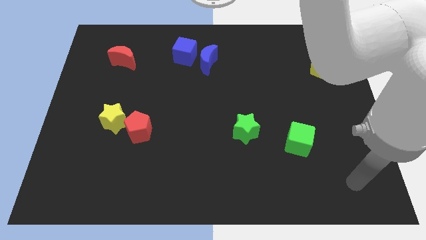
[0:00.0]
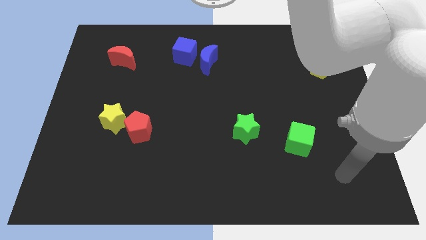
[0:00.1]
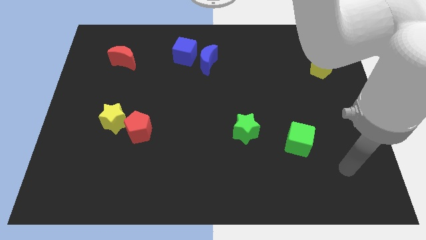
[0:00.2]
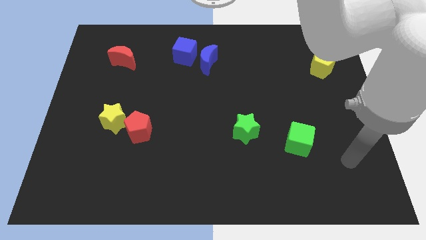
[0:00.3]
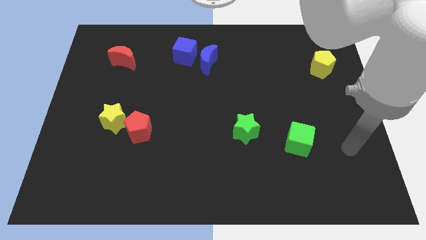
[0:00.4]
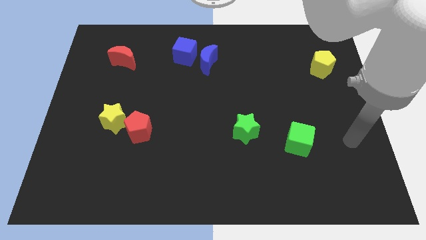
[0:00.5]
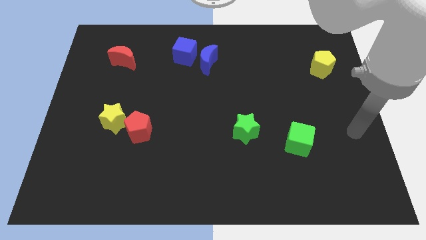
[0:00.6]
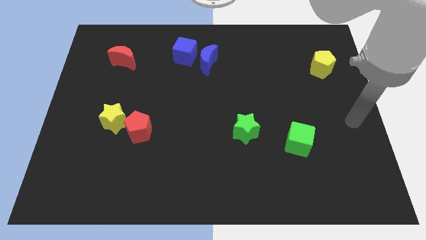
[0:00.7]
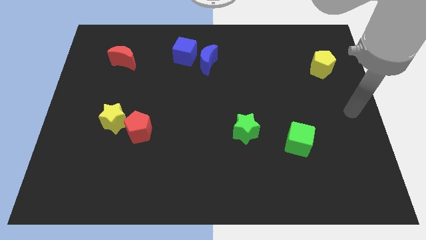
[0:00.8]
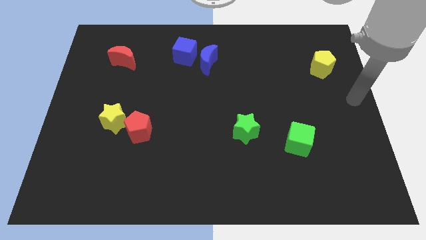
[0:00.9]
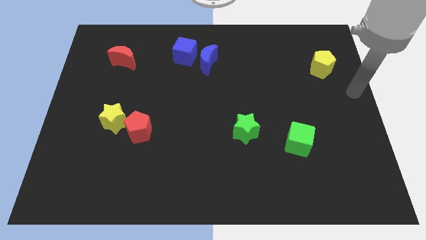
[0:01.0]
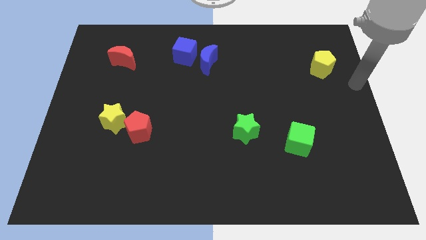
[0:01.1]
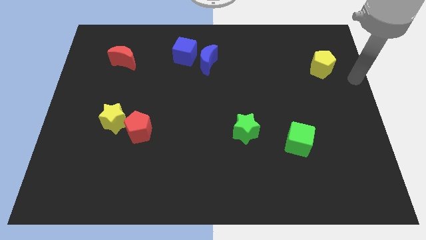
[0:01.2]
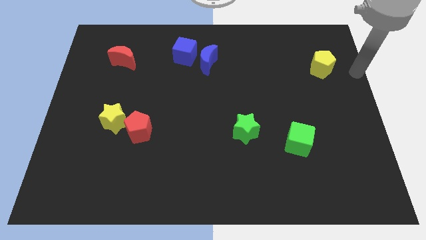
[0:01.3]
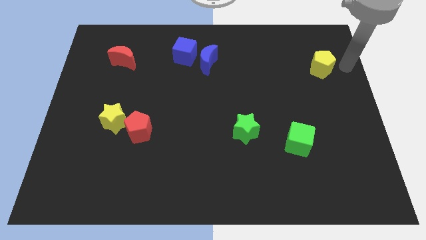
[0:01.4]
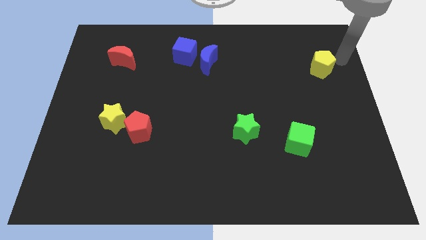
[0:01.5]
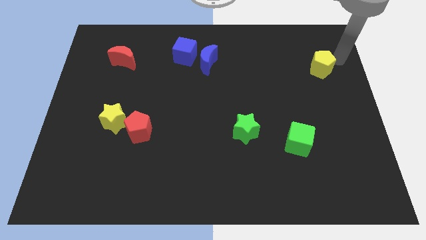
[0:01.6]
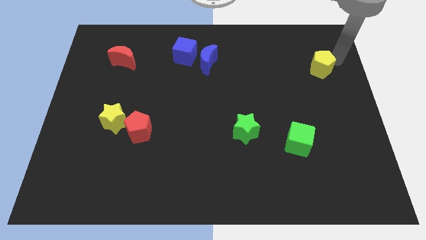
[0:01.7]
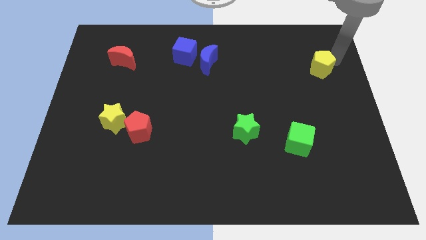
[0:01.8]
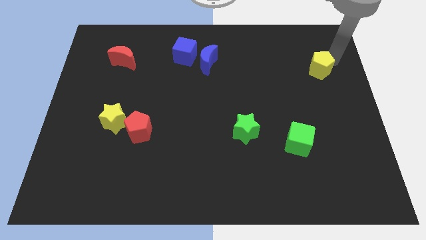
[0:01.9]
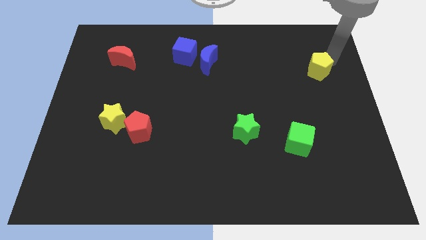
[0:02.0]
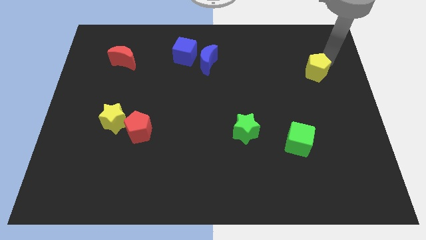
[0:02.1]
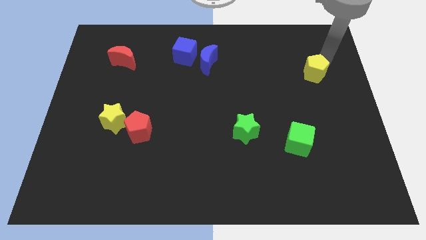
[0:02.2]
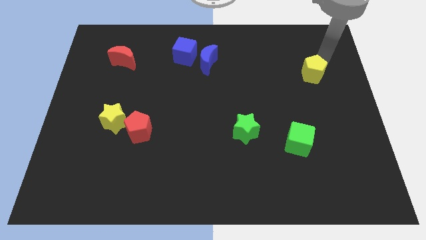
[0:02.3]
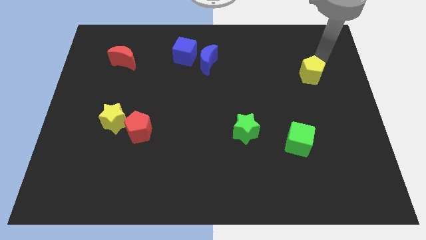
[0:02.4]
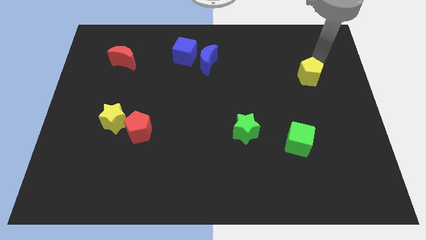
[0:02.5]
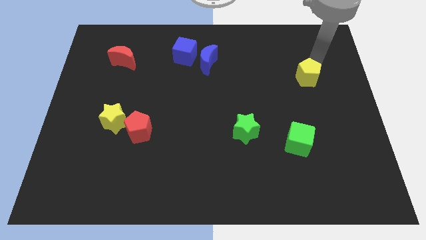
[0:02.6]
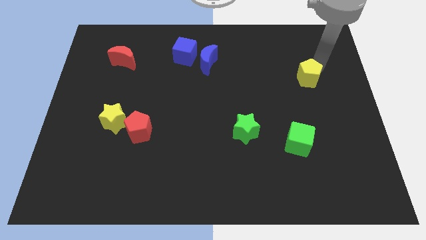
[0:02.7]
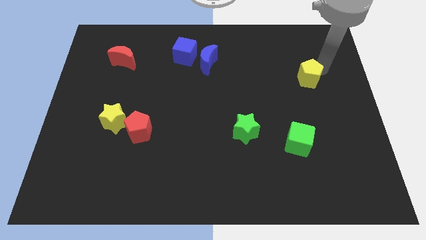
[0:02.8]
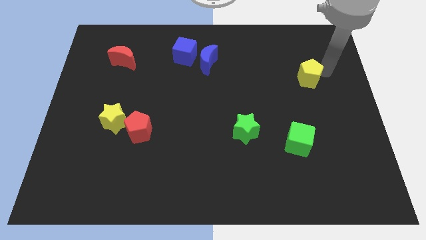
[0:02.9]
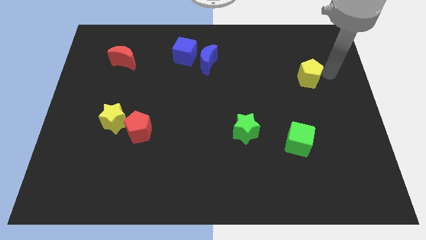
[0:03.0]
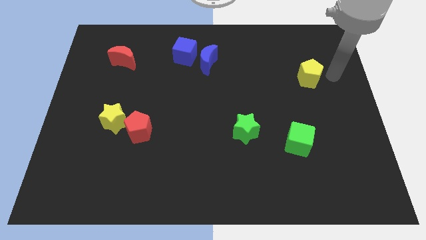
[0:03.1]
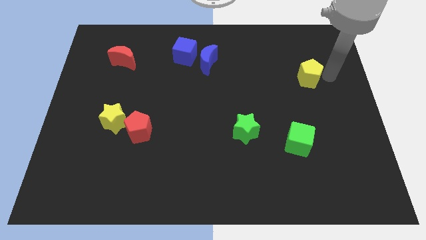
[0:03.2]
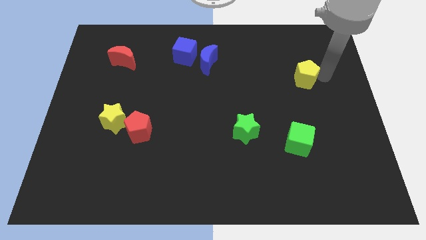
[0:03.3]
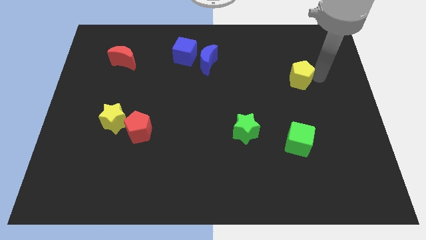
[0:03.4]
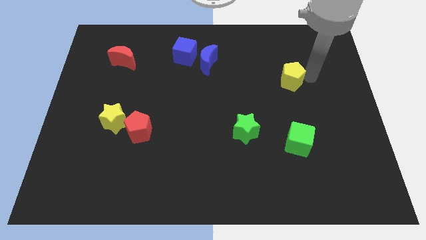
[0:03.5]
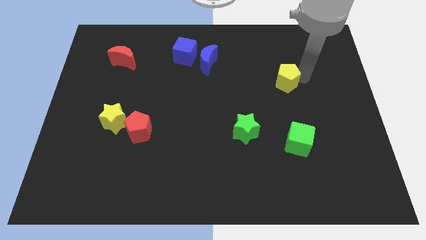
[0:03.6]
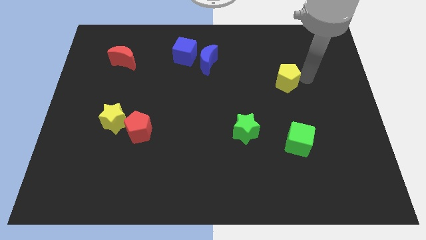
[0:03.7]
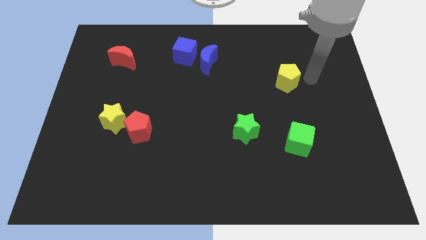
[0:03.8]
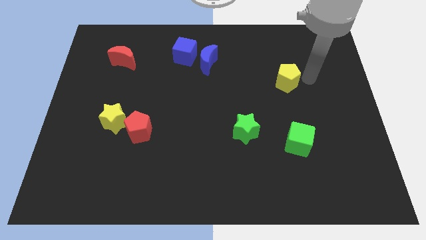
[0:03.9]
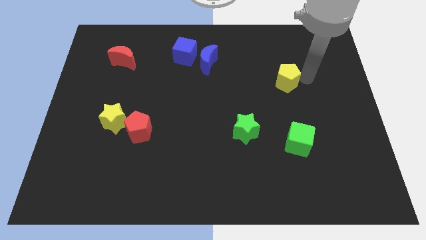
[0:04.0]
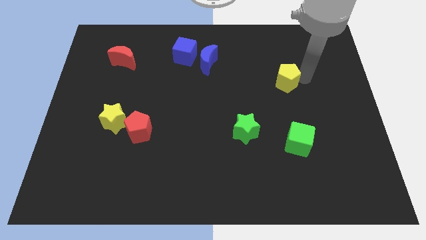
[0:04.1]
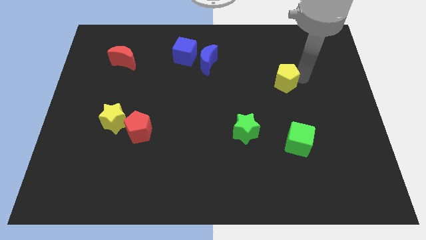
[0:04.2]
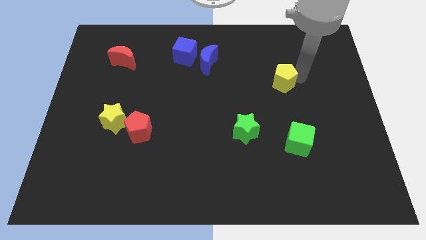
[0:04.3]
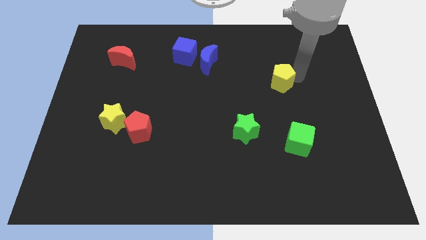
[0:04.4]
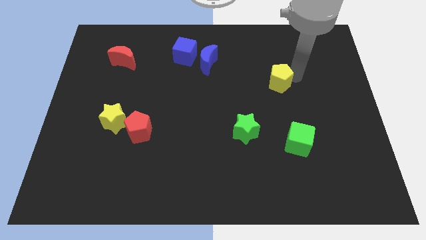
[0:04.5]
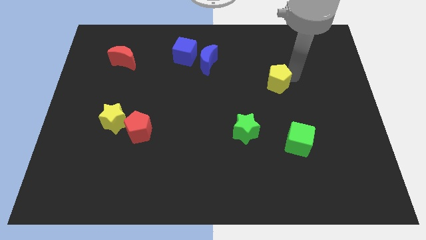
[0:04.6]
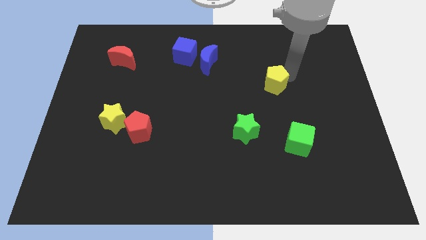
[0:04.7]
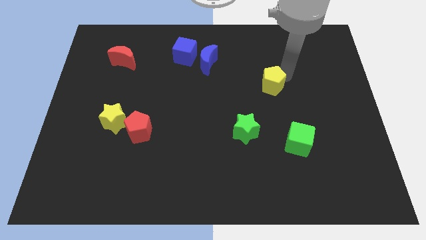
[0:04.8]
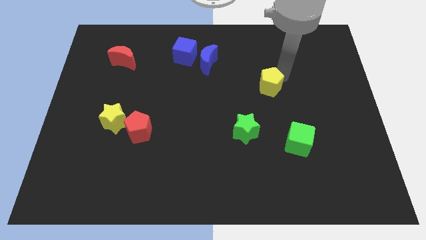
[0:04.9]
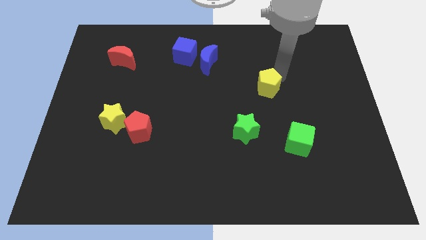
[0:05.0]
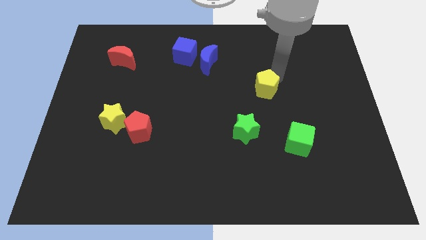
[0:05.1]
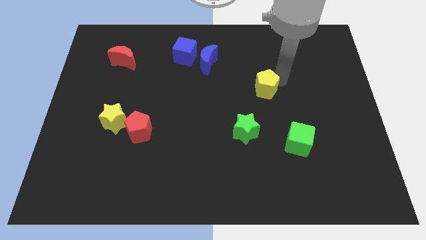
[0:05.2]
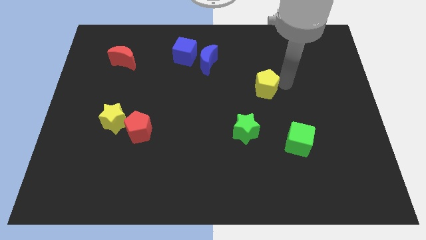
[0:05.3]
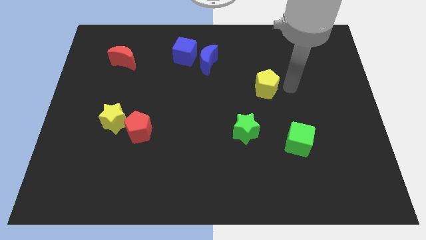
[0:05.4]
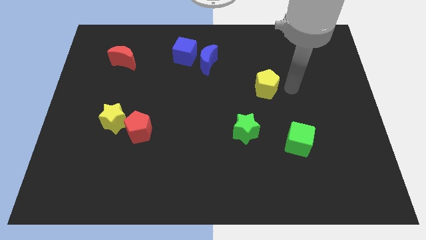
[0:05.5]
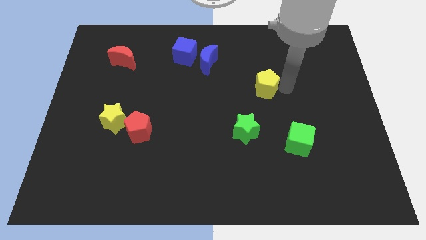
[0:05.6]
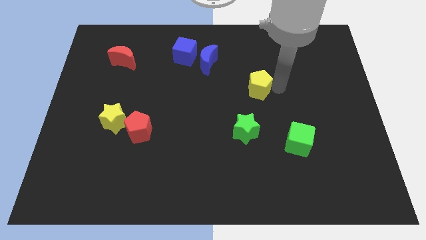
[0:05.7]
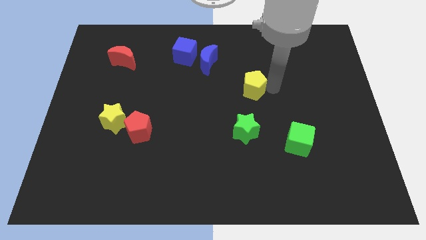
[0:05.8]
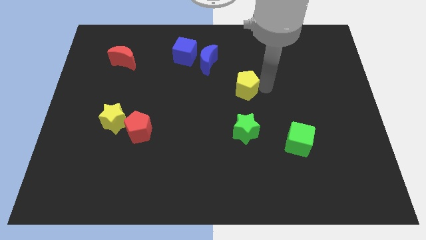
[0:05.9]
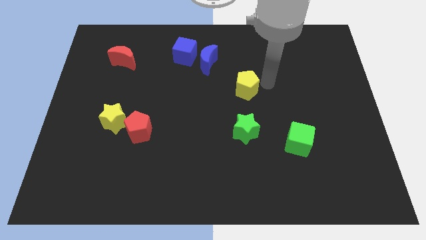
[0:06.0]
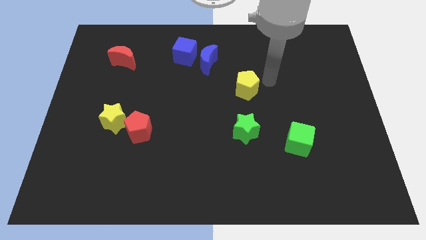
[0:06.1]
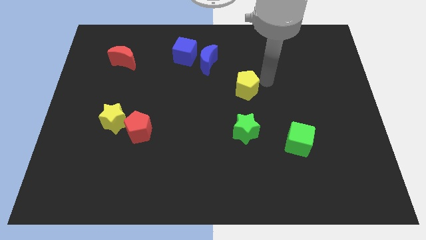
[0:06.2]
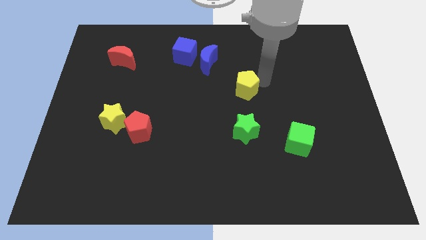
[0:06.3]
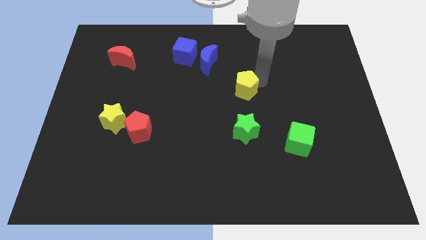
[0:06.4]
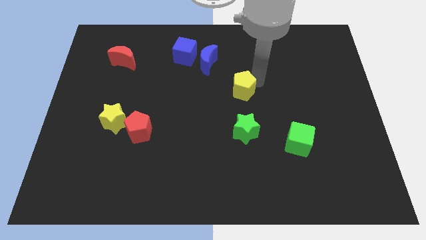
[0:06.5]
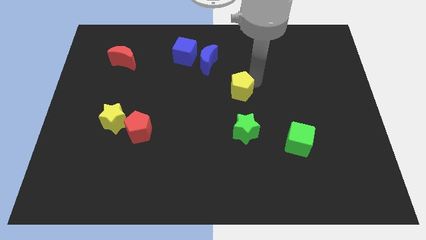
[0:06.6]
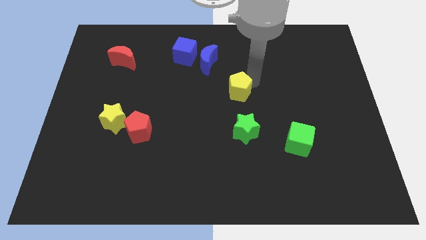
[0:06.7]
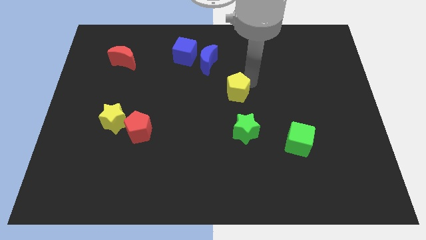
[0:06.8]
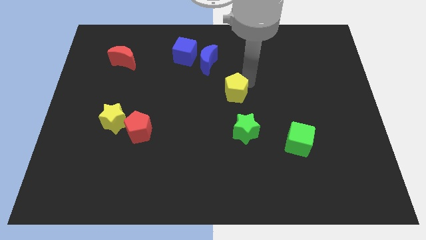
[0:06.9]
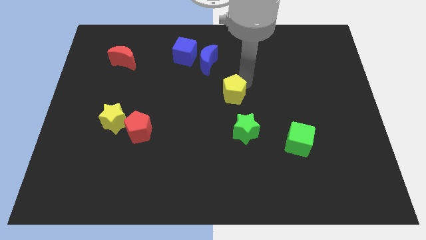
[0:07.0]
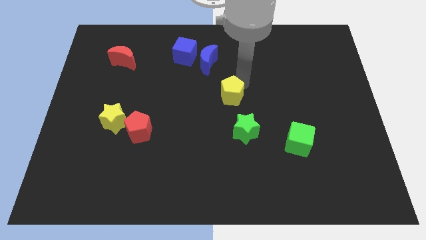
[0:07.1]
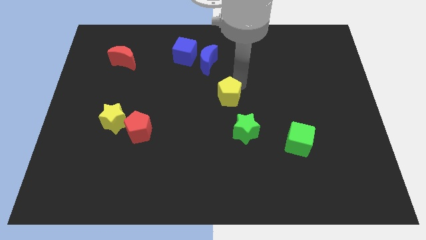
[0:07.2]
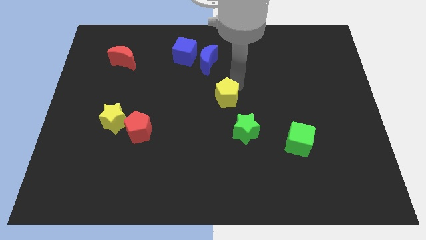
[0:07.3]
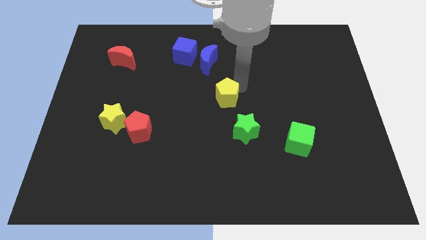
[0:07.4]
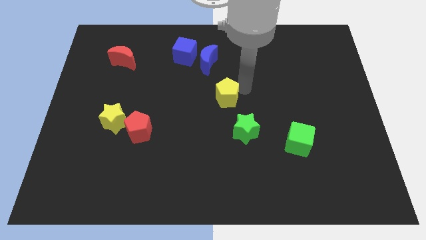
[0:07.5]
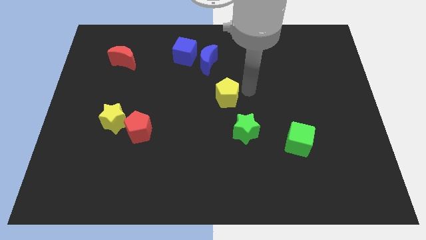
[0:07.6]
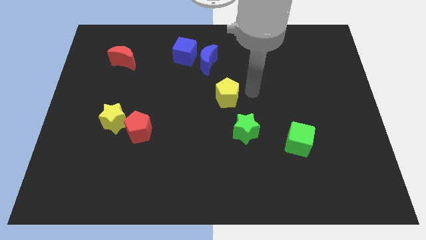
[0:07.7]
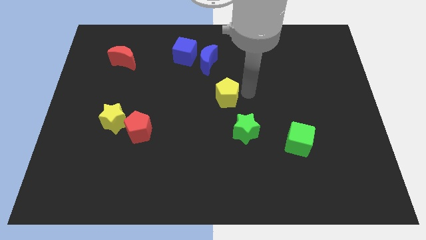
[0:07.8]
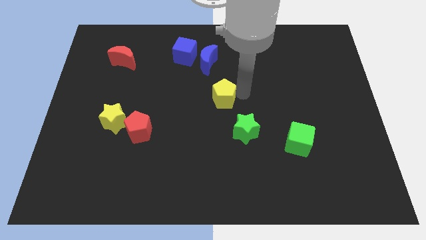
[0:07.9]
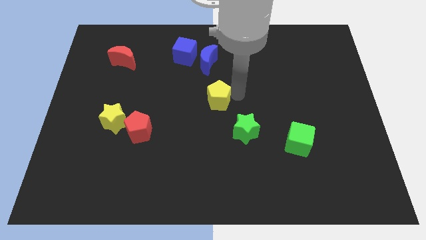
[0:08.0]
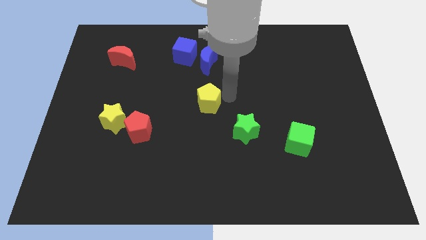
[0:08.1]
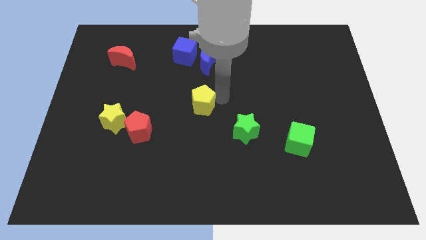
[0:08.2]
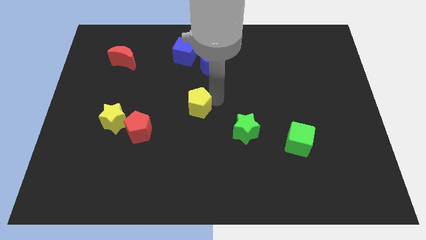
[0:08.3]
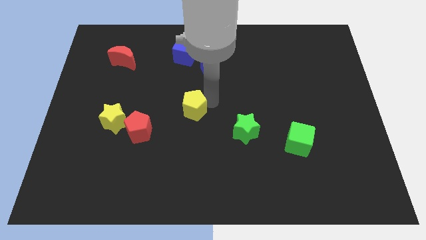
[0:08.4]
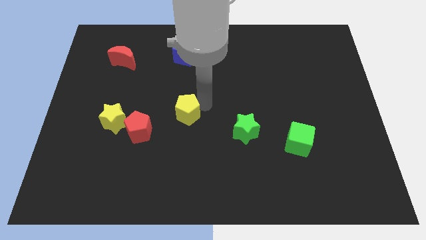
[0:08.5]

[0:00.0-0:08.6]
push the yellow pentagon to the top right of the red pentagon
